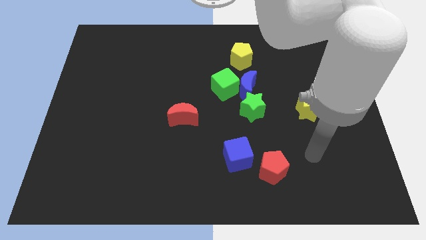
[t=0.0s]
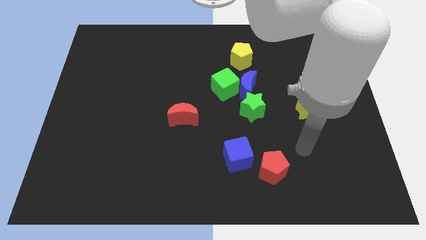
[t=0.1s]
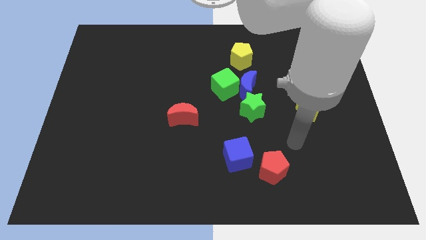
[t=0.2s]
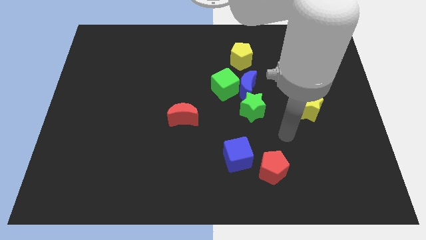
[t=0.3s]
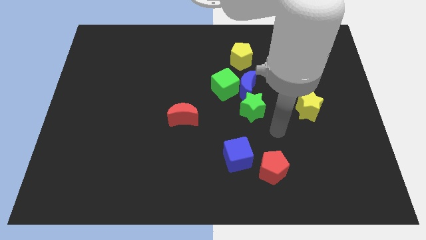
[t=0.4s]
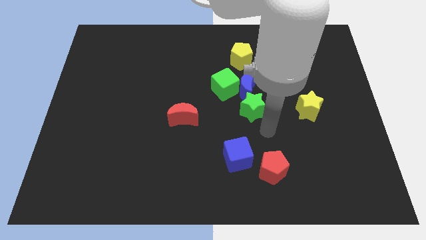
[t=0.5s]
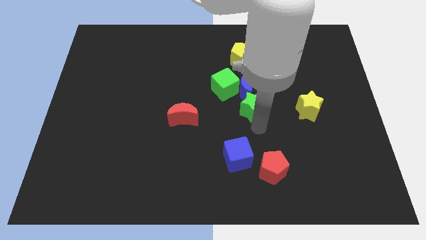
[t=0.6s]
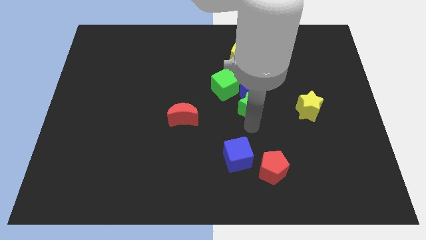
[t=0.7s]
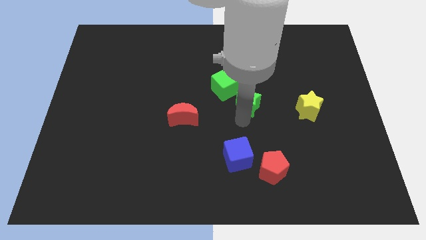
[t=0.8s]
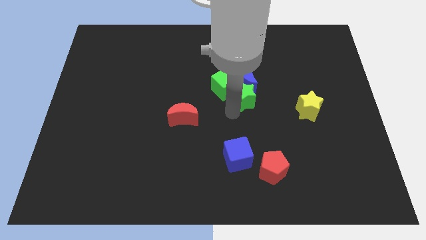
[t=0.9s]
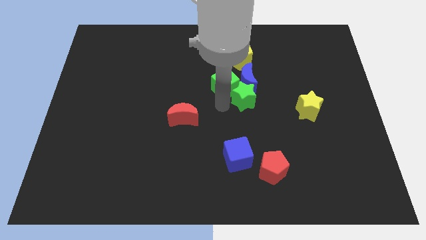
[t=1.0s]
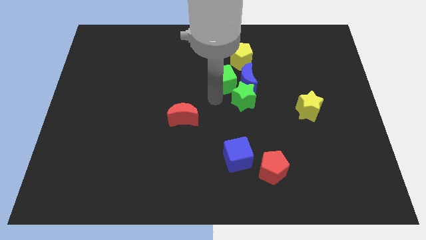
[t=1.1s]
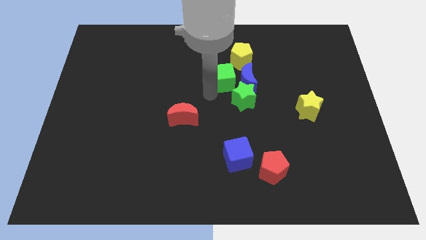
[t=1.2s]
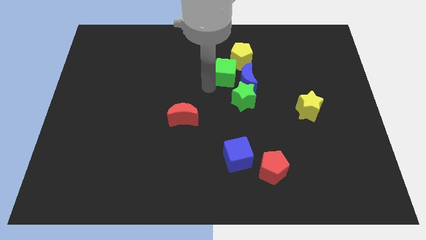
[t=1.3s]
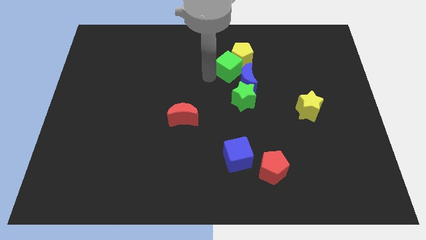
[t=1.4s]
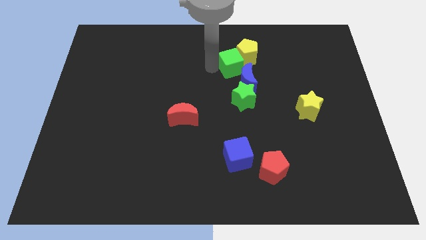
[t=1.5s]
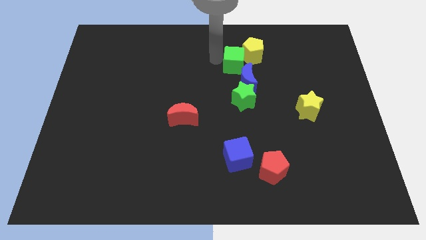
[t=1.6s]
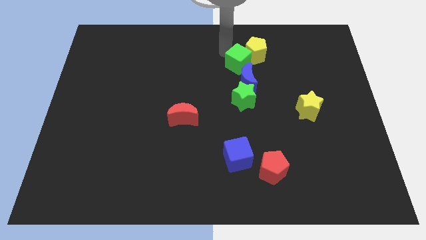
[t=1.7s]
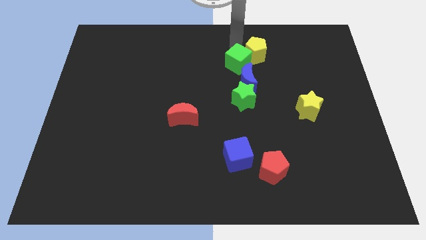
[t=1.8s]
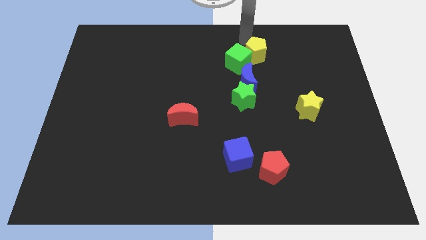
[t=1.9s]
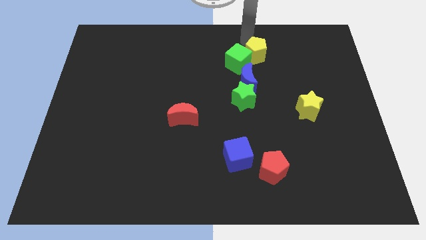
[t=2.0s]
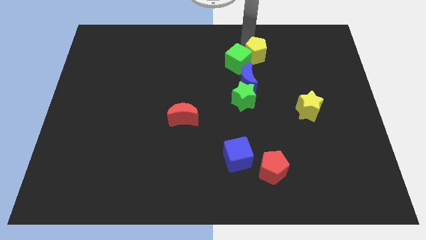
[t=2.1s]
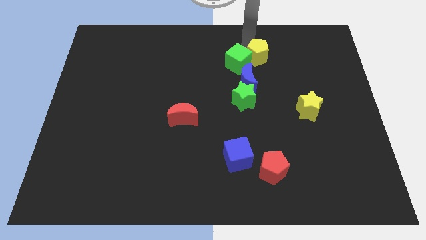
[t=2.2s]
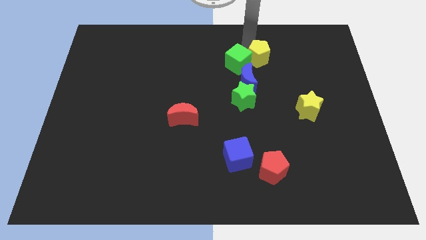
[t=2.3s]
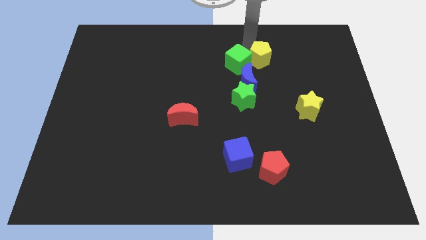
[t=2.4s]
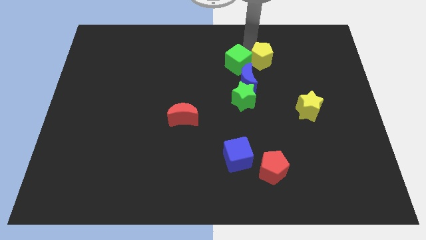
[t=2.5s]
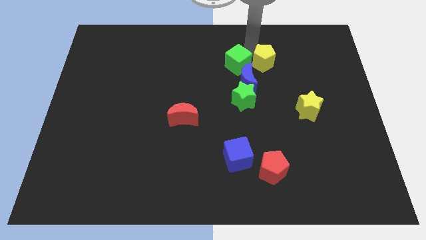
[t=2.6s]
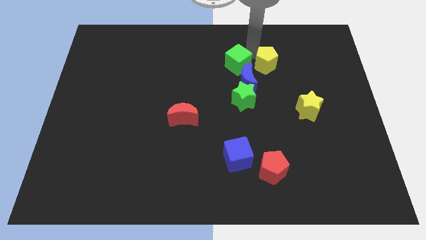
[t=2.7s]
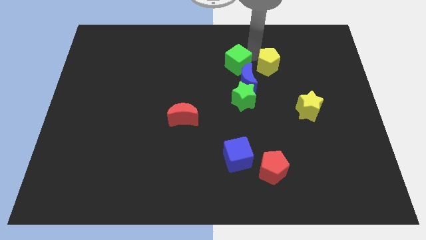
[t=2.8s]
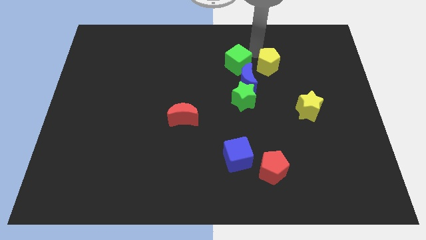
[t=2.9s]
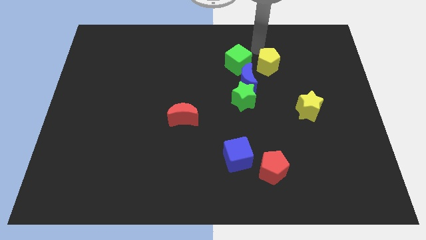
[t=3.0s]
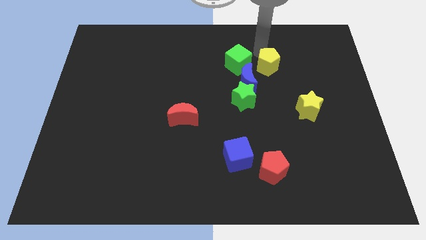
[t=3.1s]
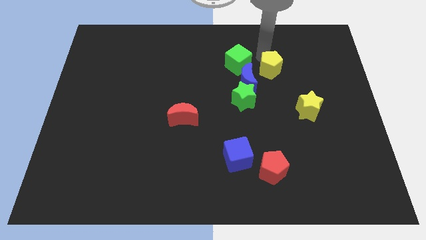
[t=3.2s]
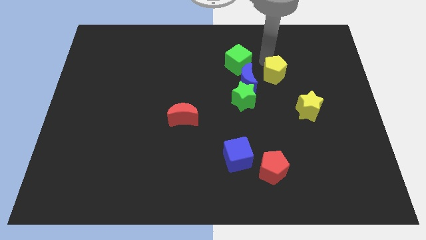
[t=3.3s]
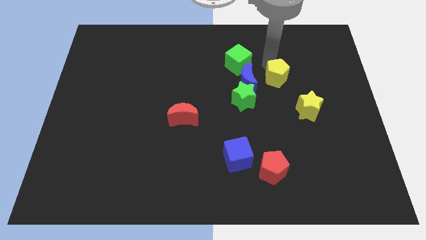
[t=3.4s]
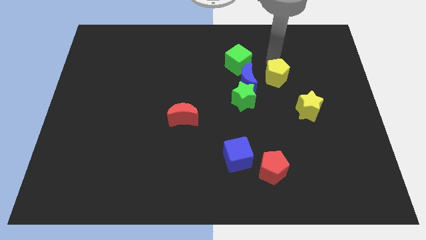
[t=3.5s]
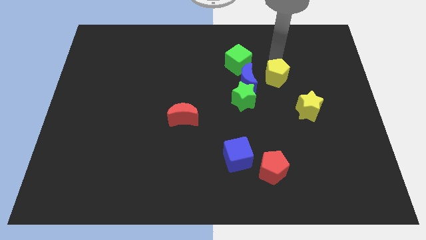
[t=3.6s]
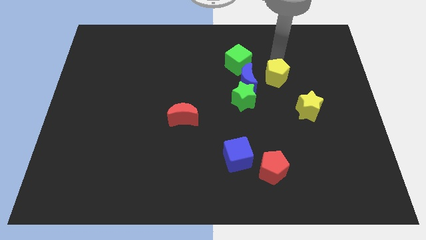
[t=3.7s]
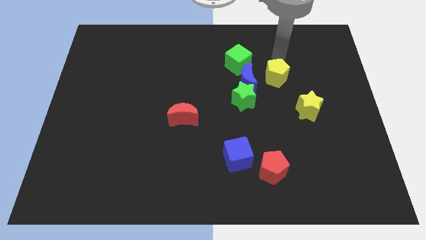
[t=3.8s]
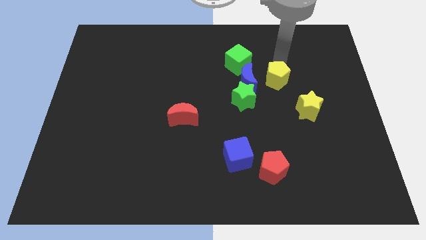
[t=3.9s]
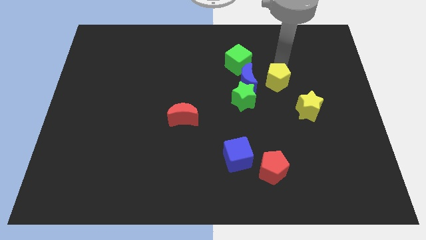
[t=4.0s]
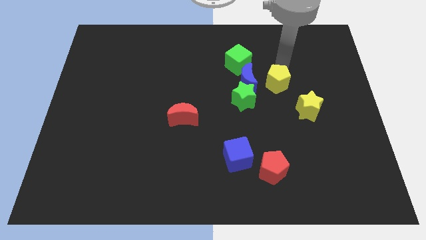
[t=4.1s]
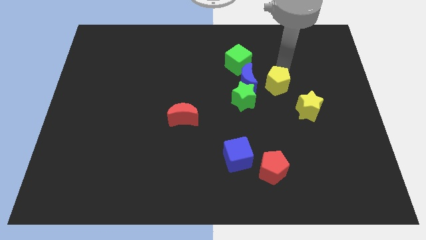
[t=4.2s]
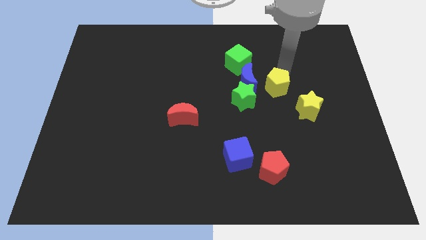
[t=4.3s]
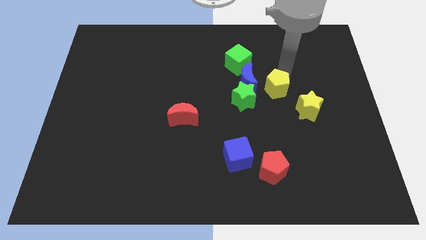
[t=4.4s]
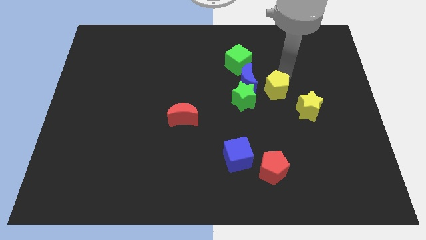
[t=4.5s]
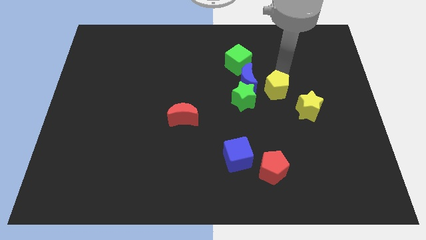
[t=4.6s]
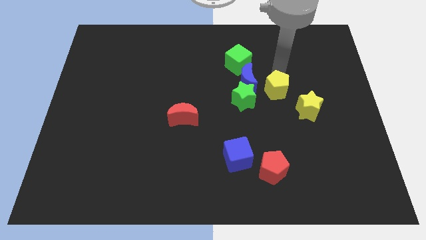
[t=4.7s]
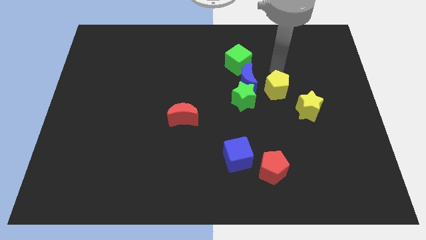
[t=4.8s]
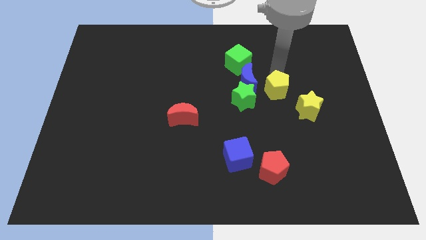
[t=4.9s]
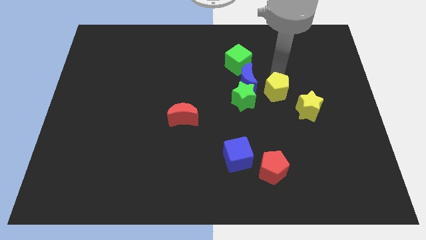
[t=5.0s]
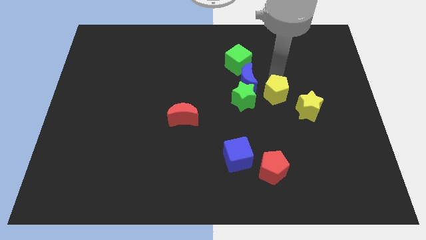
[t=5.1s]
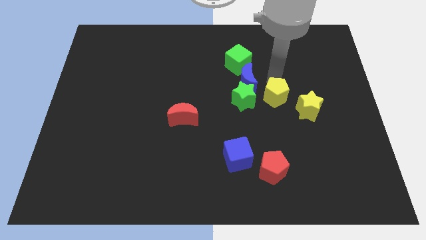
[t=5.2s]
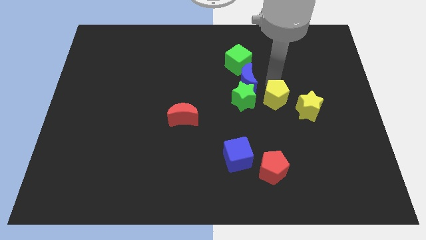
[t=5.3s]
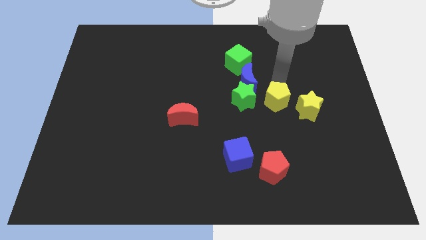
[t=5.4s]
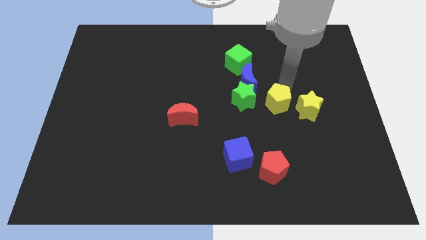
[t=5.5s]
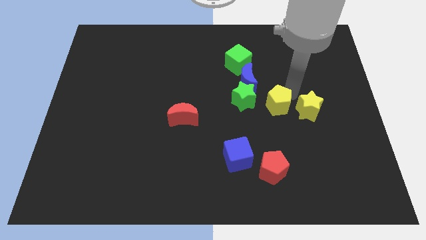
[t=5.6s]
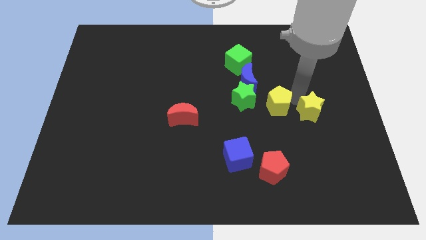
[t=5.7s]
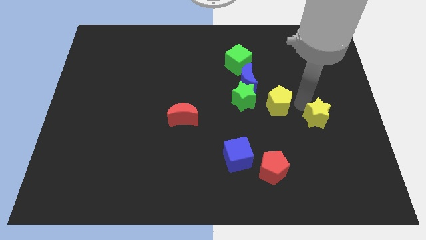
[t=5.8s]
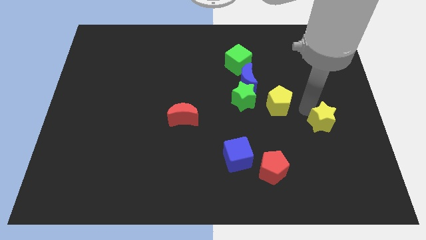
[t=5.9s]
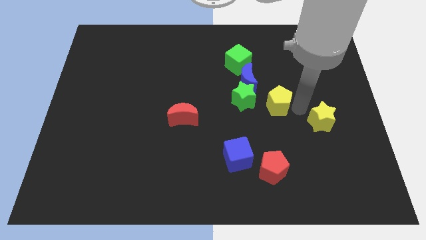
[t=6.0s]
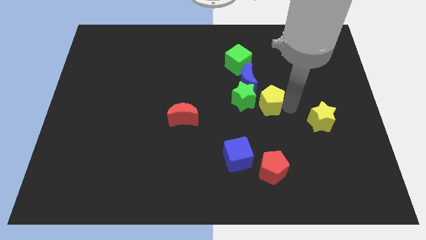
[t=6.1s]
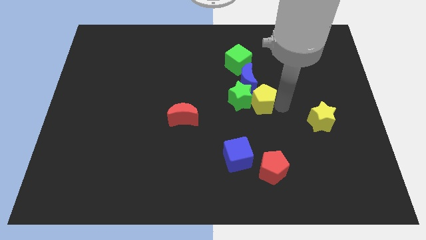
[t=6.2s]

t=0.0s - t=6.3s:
slide the yellow pentagon next to the green star

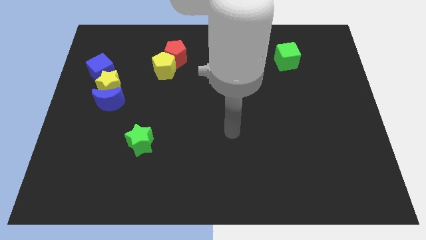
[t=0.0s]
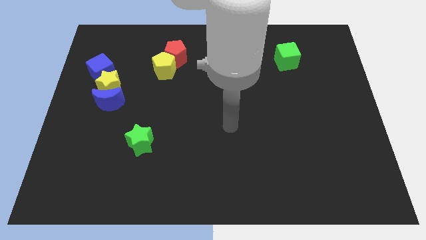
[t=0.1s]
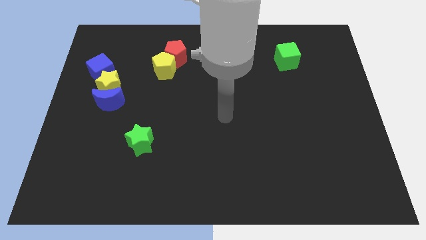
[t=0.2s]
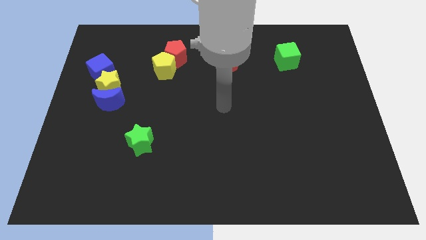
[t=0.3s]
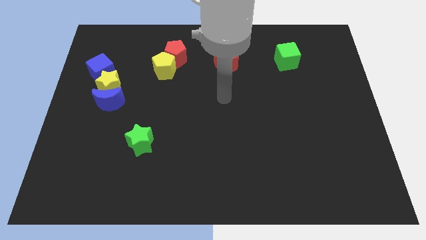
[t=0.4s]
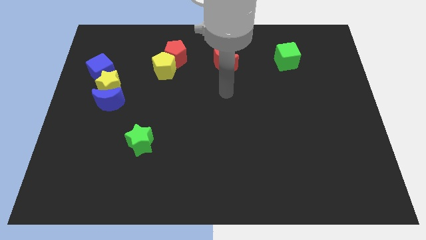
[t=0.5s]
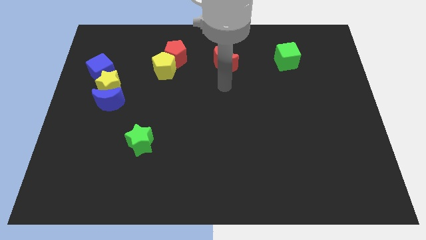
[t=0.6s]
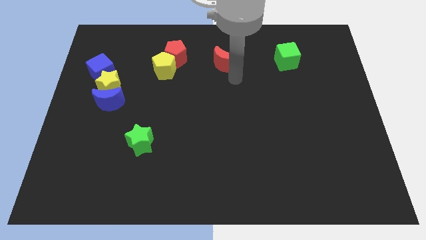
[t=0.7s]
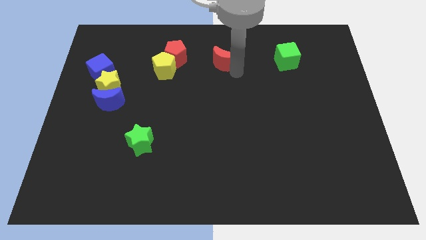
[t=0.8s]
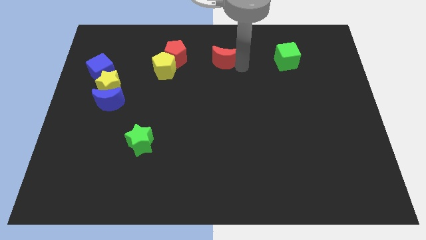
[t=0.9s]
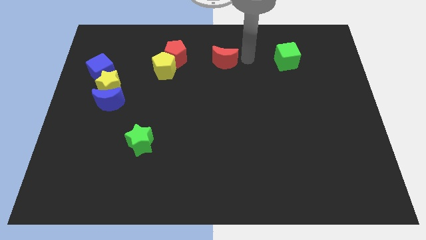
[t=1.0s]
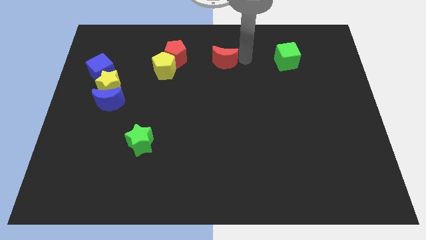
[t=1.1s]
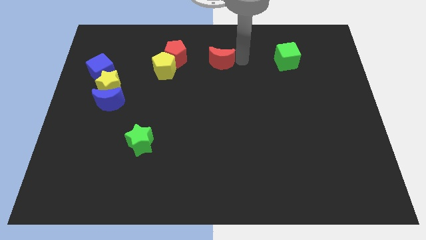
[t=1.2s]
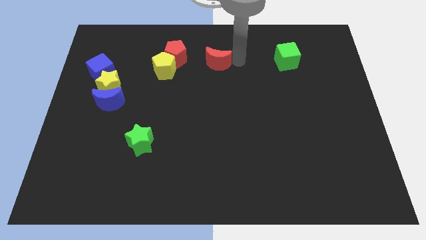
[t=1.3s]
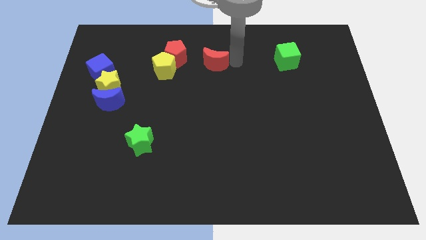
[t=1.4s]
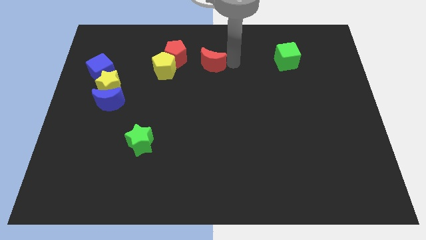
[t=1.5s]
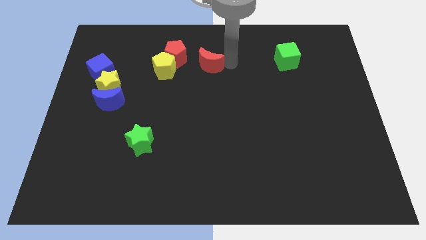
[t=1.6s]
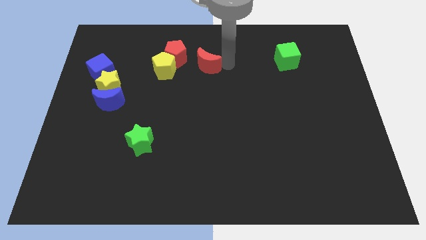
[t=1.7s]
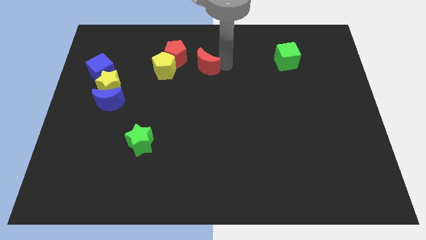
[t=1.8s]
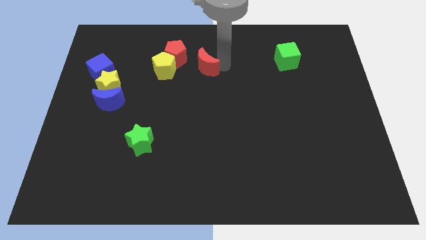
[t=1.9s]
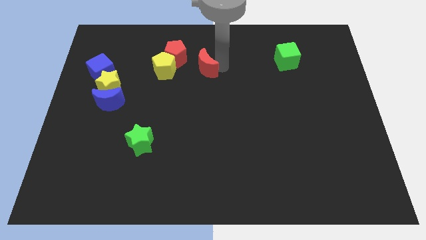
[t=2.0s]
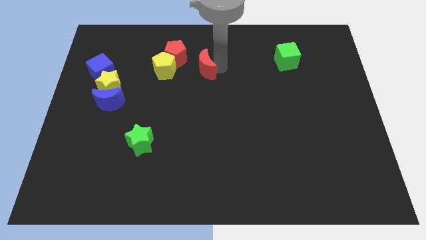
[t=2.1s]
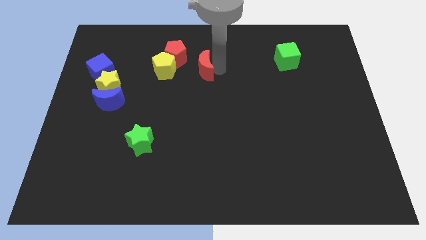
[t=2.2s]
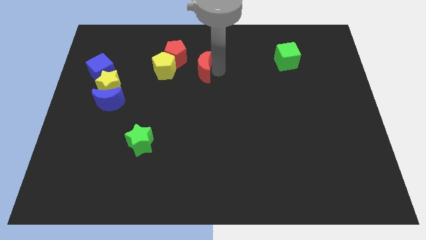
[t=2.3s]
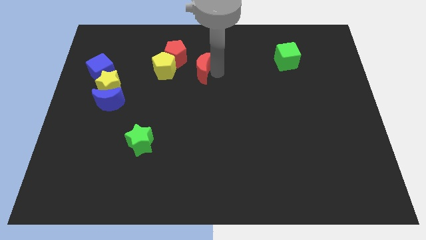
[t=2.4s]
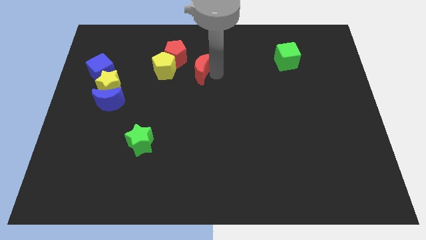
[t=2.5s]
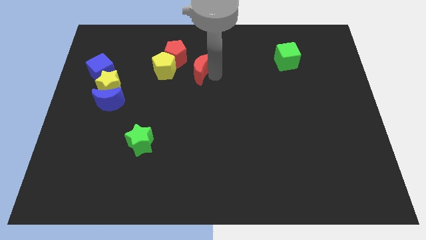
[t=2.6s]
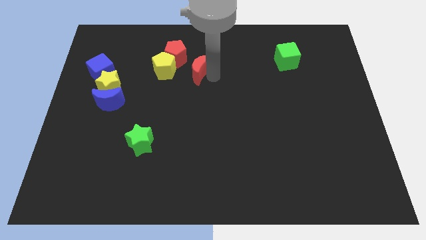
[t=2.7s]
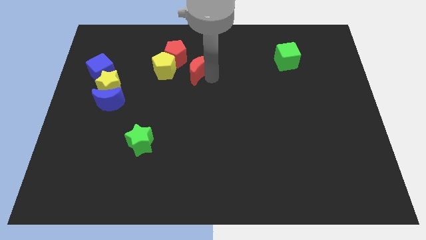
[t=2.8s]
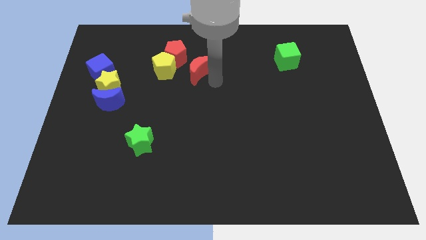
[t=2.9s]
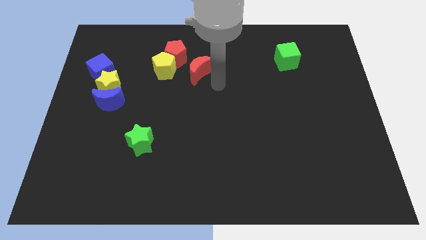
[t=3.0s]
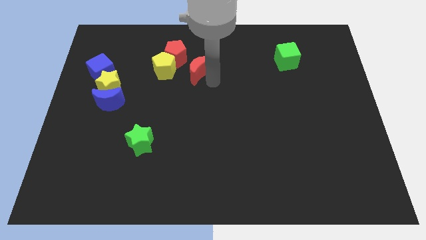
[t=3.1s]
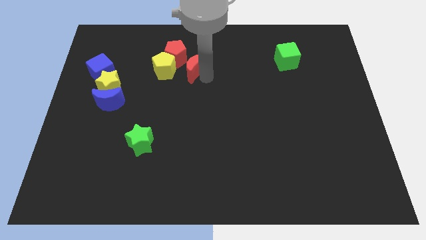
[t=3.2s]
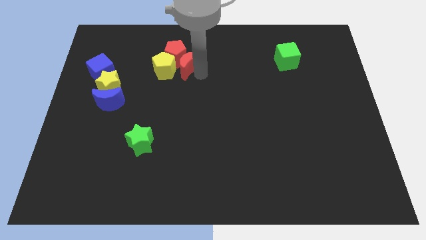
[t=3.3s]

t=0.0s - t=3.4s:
move the red moon close to the red pentagon
